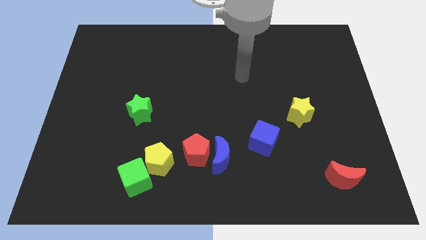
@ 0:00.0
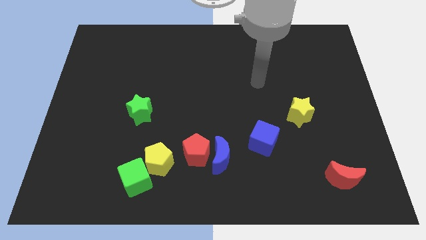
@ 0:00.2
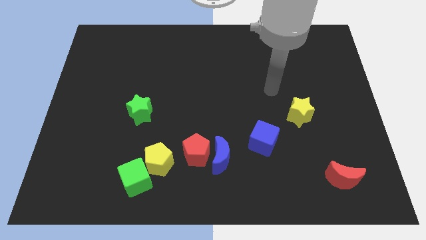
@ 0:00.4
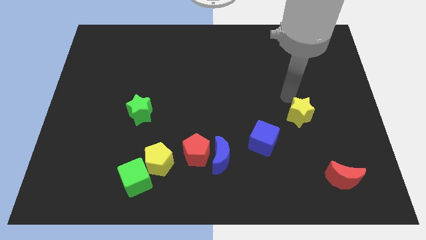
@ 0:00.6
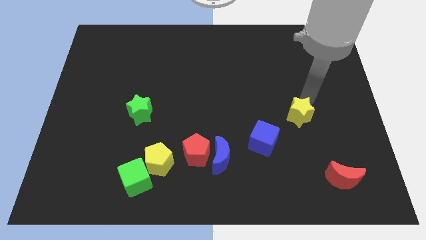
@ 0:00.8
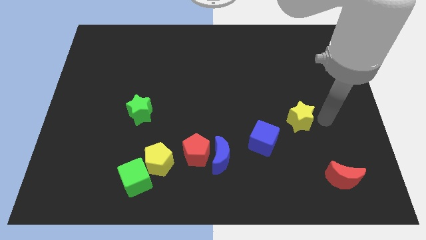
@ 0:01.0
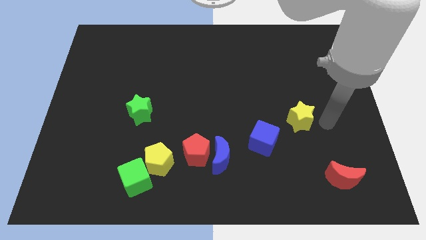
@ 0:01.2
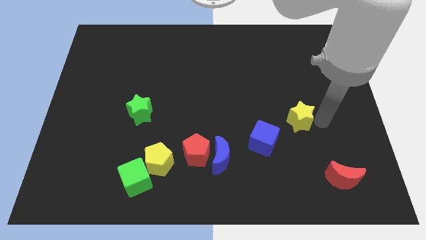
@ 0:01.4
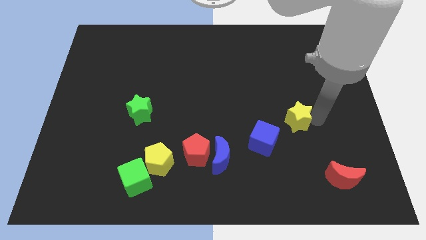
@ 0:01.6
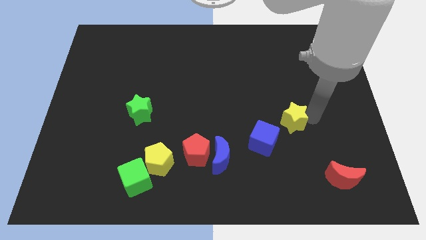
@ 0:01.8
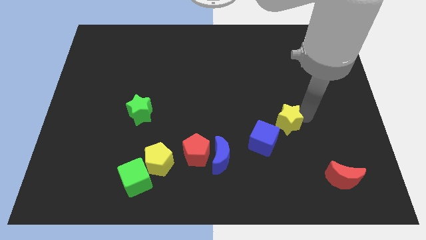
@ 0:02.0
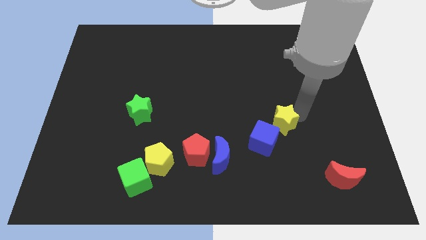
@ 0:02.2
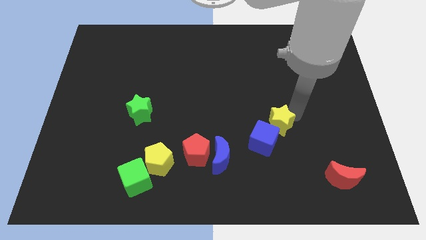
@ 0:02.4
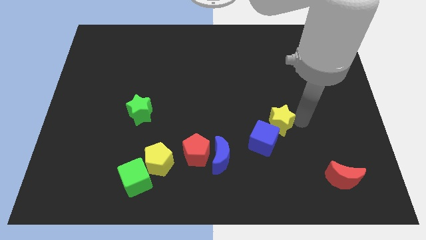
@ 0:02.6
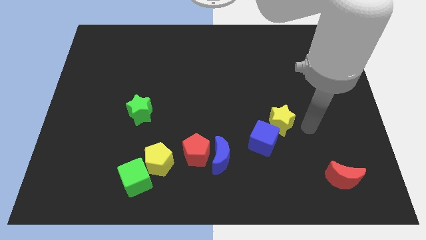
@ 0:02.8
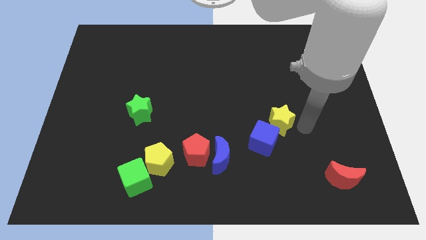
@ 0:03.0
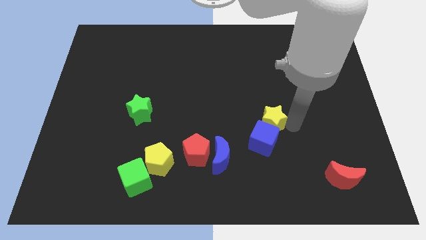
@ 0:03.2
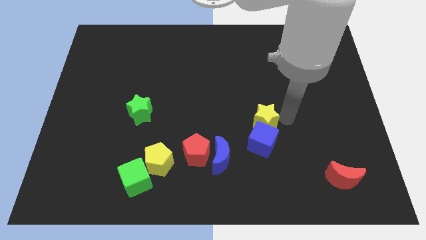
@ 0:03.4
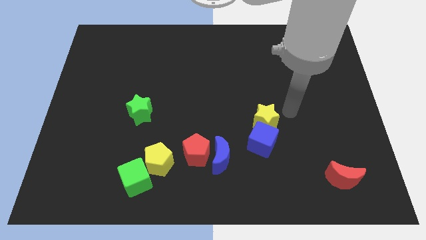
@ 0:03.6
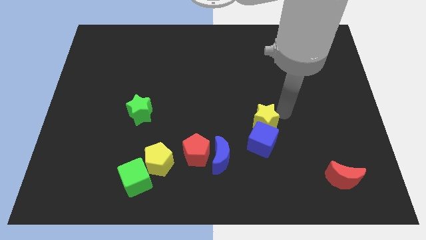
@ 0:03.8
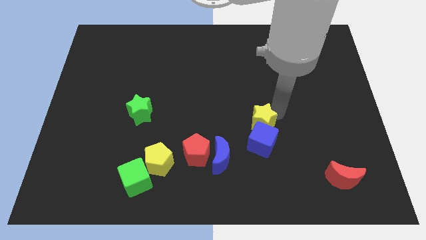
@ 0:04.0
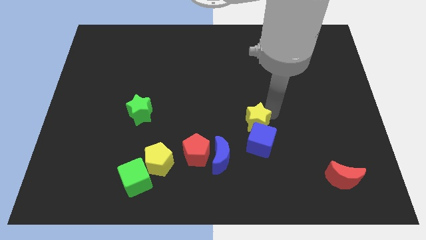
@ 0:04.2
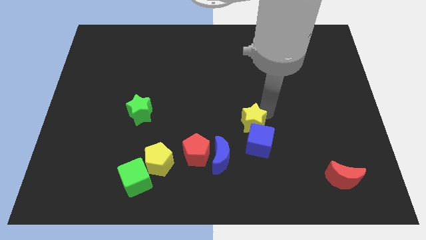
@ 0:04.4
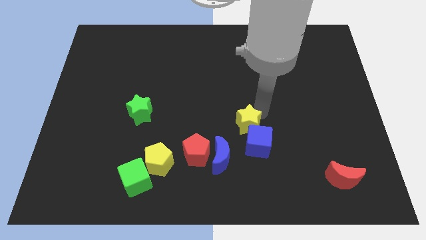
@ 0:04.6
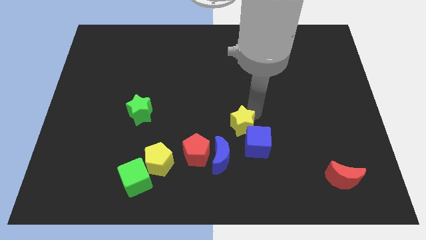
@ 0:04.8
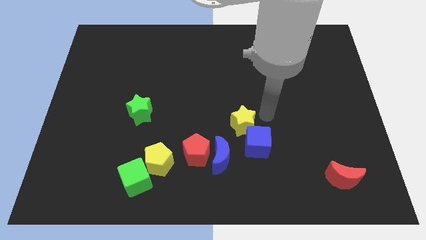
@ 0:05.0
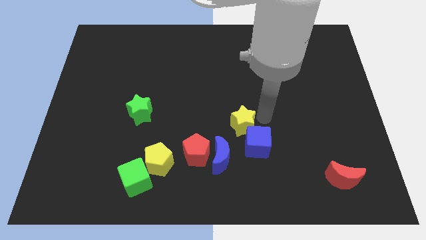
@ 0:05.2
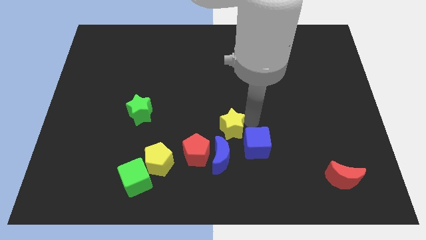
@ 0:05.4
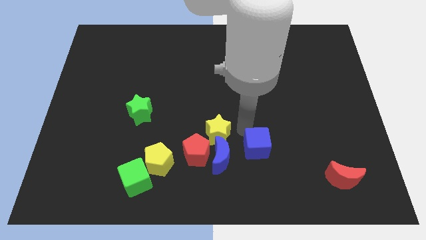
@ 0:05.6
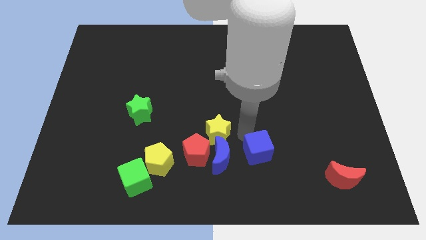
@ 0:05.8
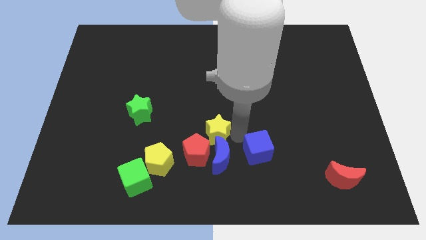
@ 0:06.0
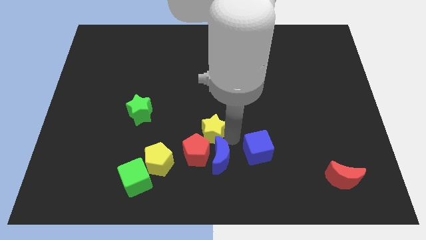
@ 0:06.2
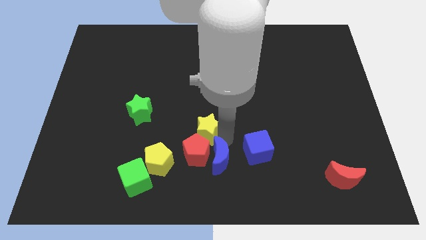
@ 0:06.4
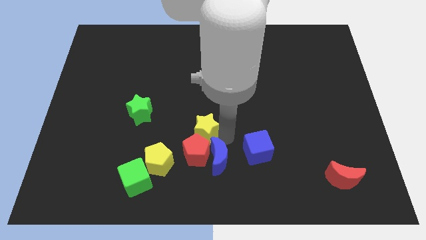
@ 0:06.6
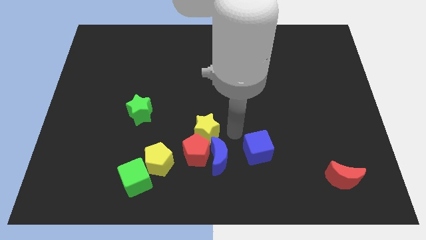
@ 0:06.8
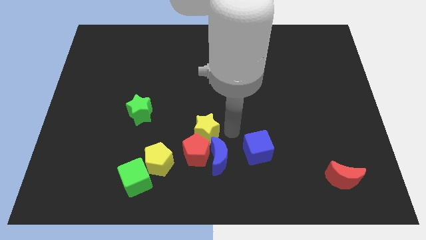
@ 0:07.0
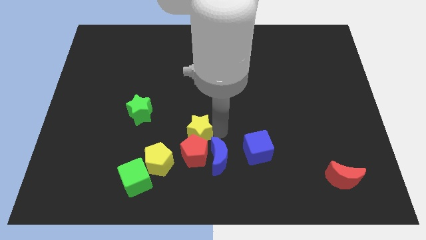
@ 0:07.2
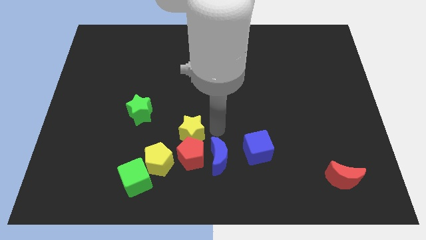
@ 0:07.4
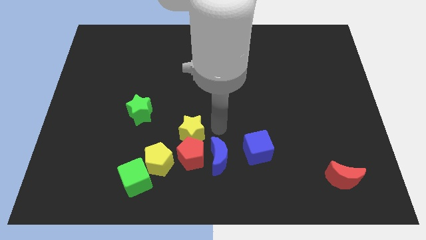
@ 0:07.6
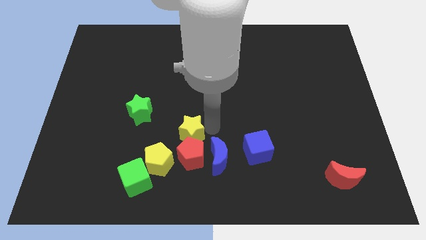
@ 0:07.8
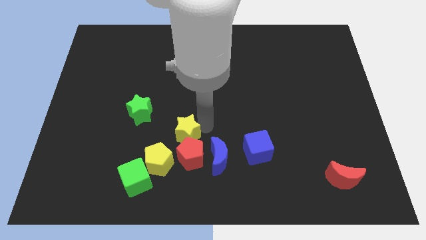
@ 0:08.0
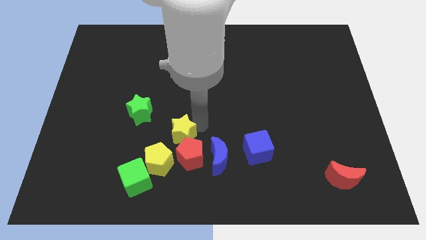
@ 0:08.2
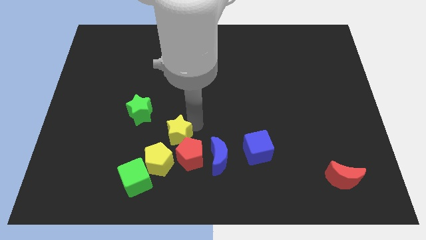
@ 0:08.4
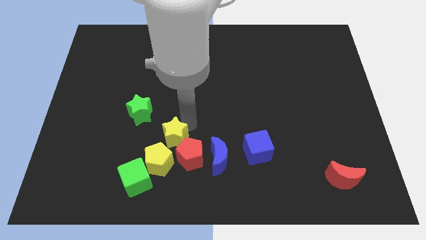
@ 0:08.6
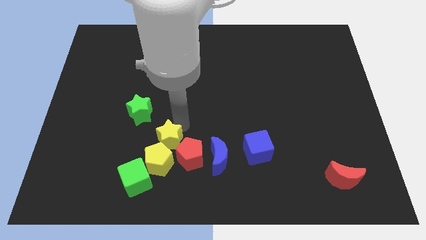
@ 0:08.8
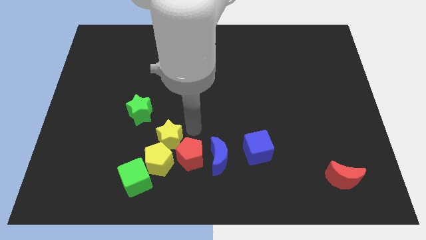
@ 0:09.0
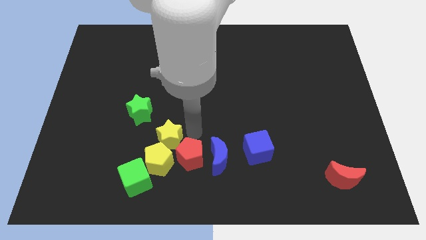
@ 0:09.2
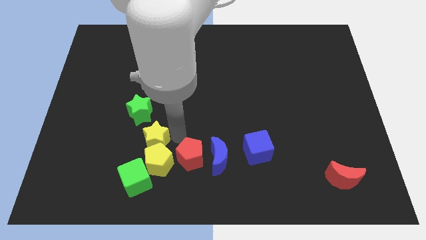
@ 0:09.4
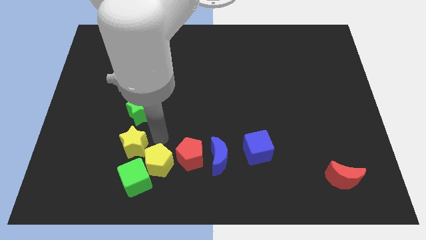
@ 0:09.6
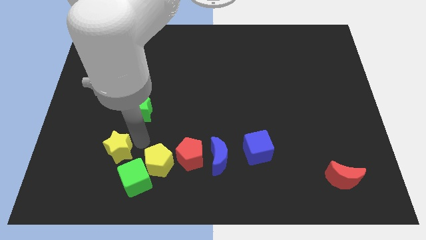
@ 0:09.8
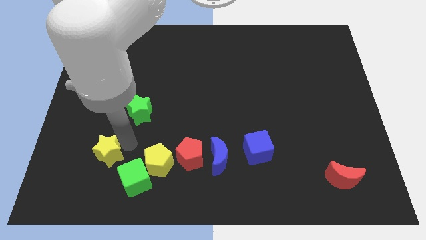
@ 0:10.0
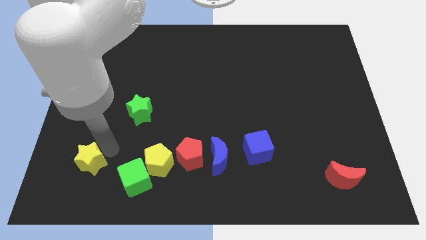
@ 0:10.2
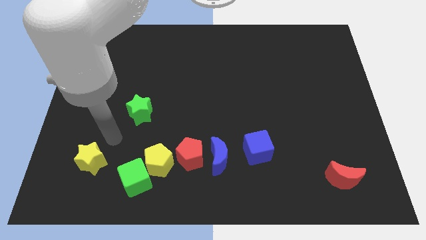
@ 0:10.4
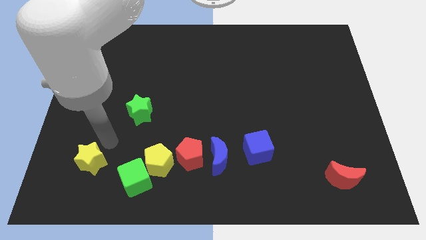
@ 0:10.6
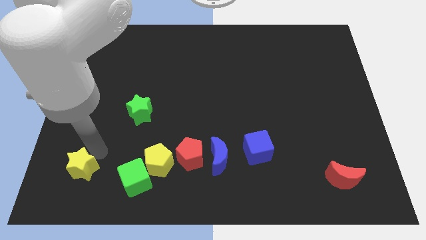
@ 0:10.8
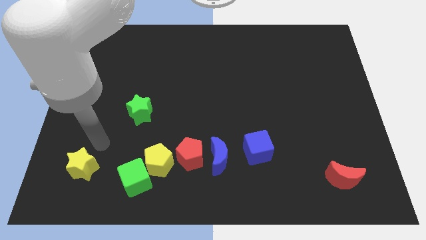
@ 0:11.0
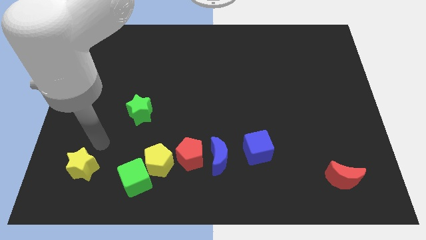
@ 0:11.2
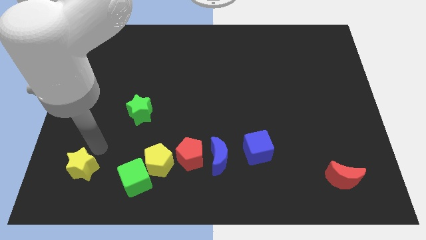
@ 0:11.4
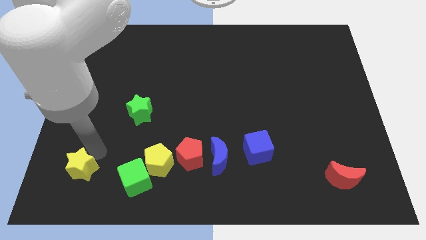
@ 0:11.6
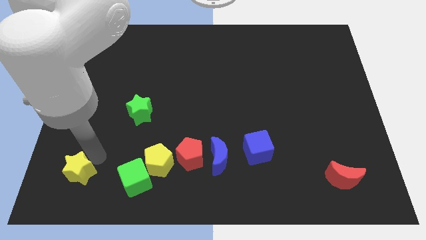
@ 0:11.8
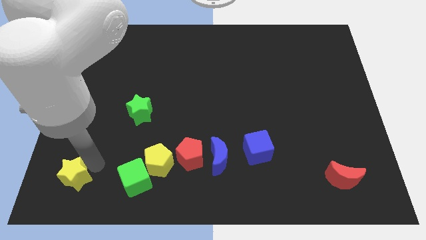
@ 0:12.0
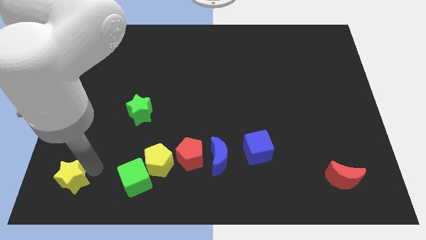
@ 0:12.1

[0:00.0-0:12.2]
push the yellow star to the bottom left corner
